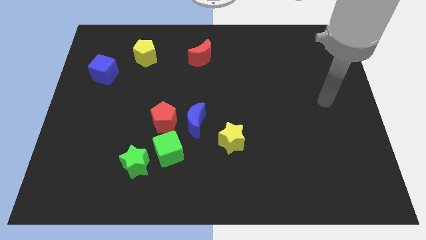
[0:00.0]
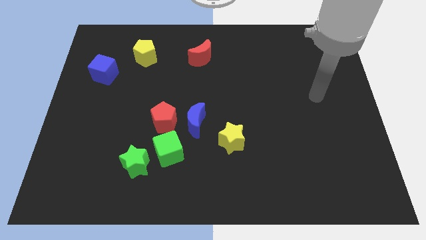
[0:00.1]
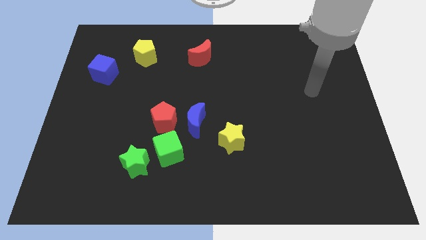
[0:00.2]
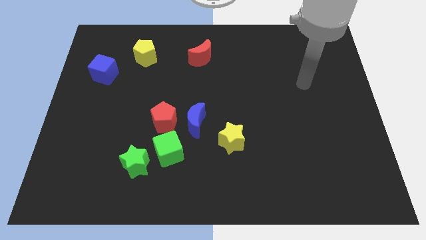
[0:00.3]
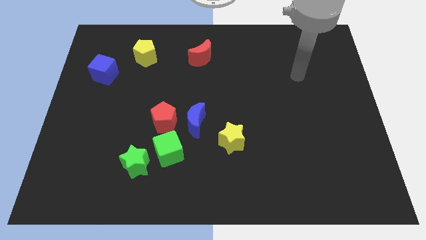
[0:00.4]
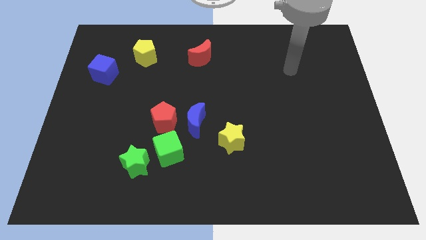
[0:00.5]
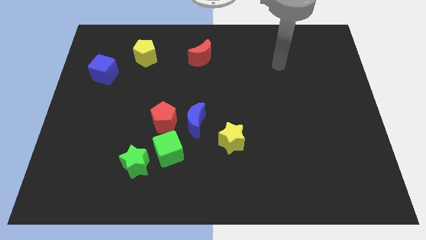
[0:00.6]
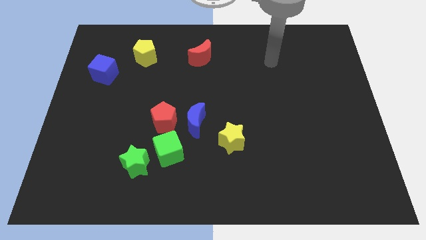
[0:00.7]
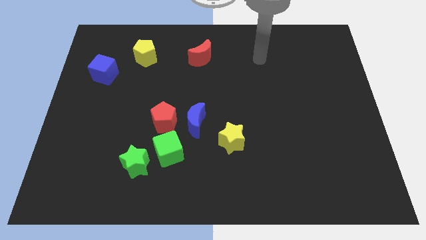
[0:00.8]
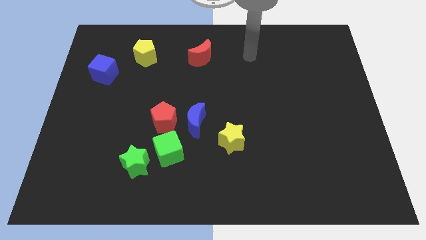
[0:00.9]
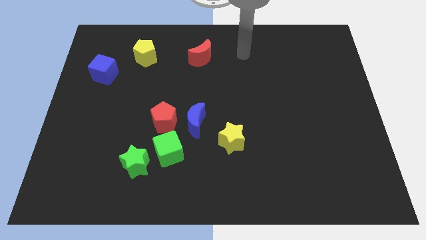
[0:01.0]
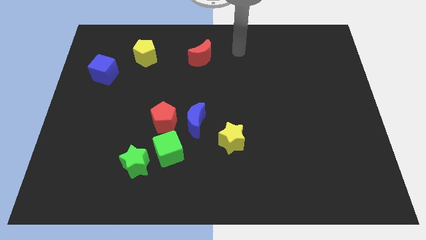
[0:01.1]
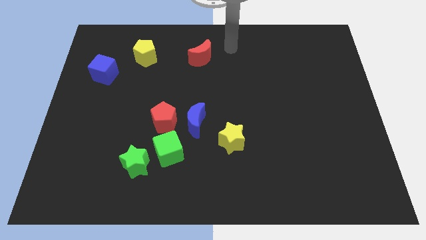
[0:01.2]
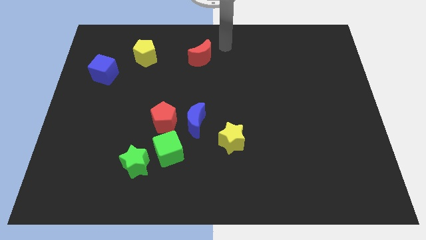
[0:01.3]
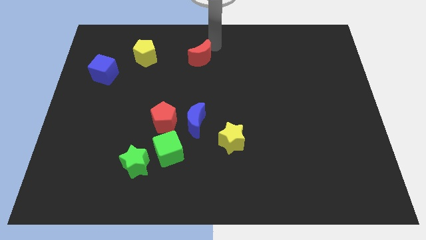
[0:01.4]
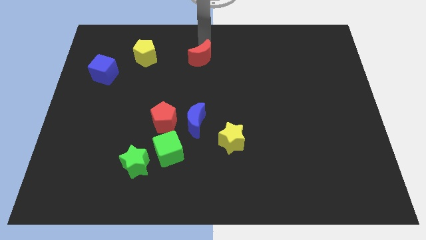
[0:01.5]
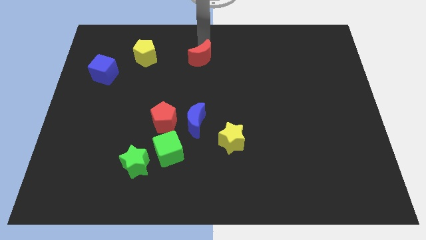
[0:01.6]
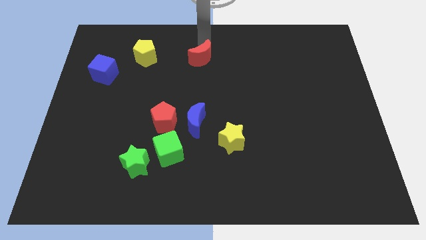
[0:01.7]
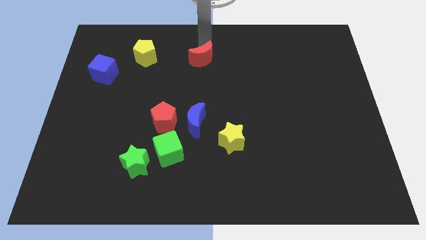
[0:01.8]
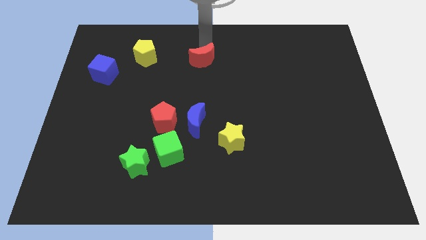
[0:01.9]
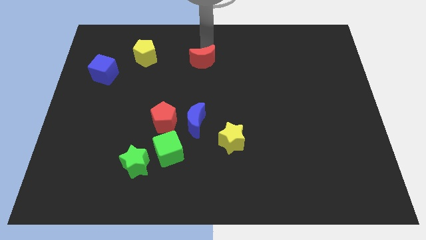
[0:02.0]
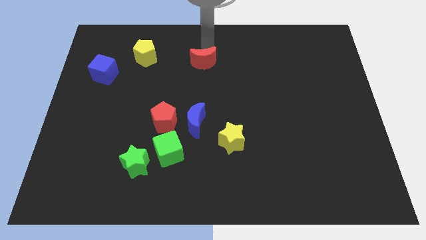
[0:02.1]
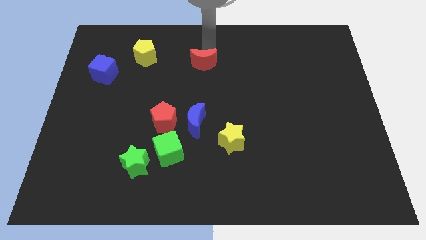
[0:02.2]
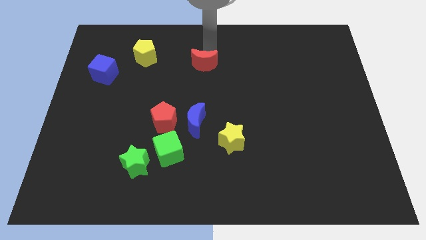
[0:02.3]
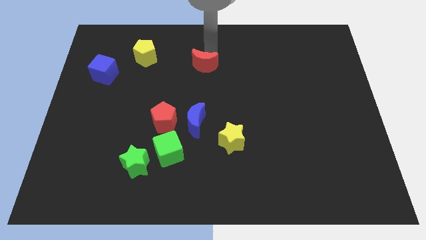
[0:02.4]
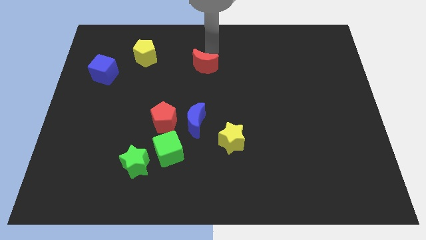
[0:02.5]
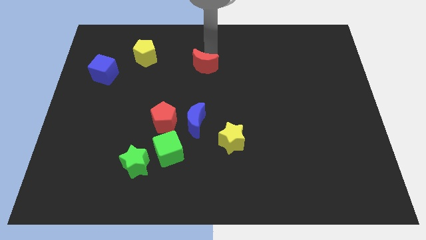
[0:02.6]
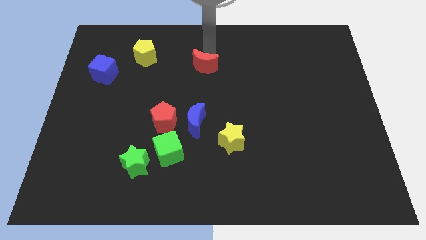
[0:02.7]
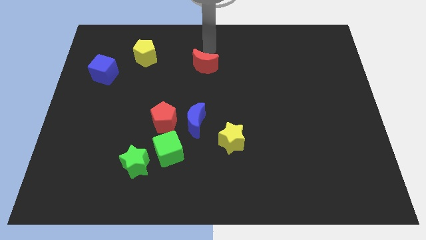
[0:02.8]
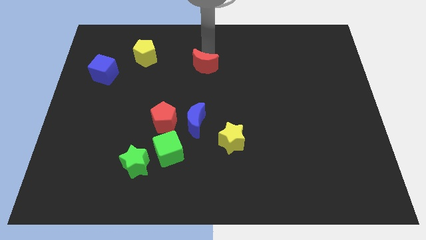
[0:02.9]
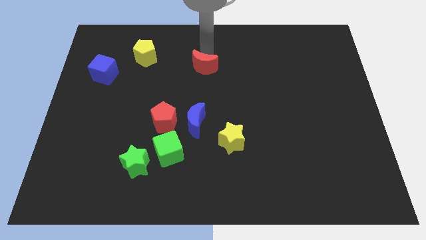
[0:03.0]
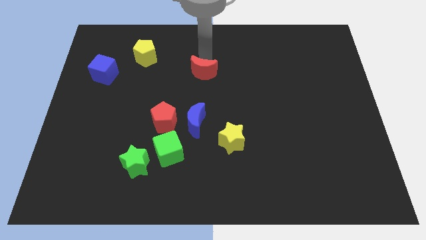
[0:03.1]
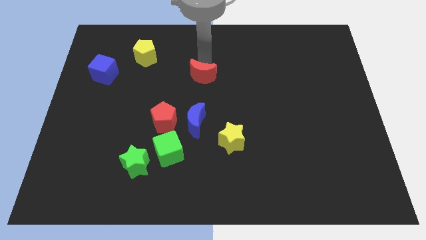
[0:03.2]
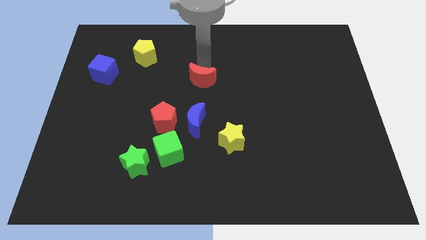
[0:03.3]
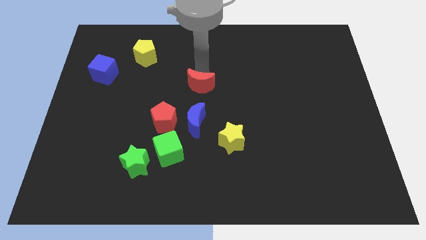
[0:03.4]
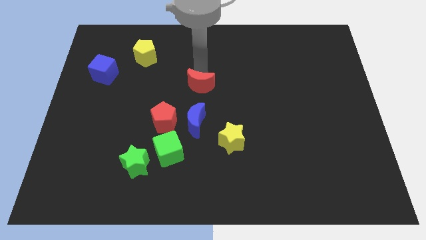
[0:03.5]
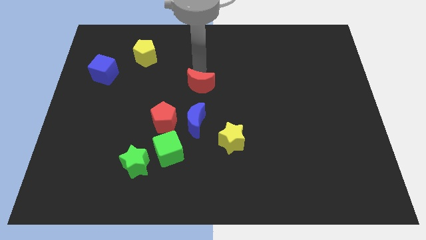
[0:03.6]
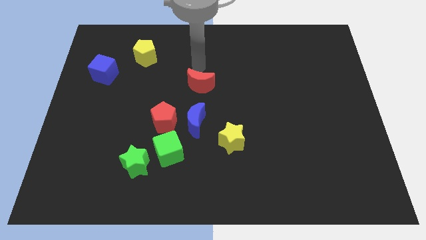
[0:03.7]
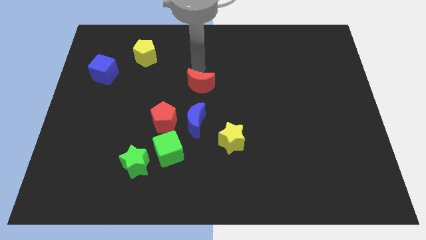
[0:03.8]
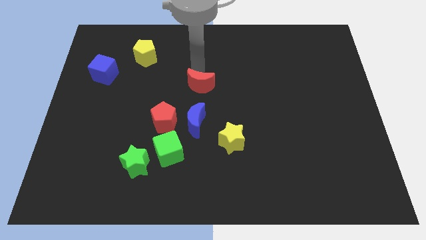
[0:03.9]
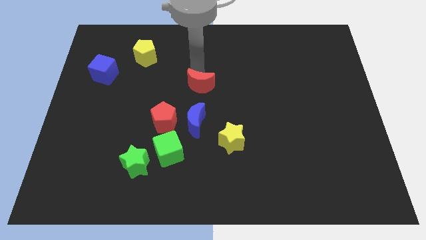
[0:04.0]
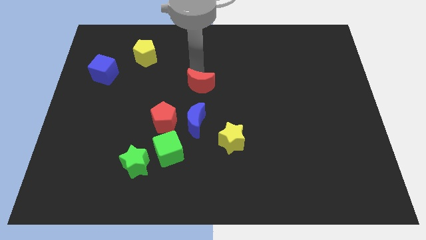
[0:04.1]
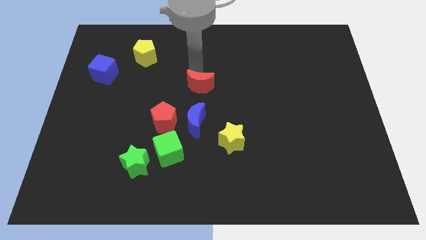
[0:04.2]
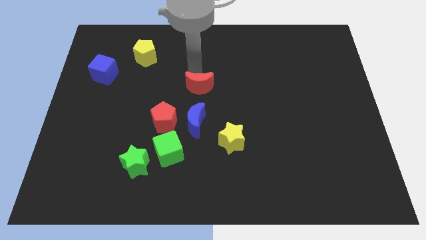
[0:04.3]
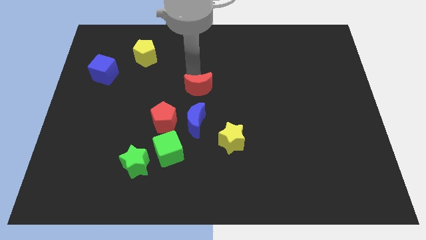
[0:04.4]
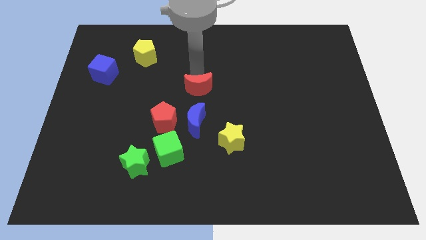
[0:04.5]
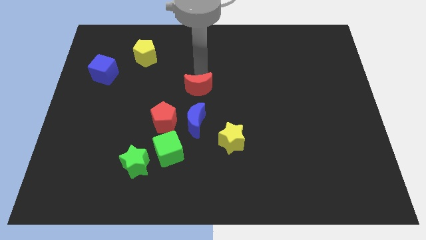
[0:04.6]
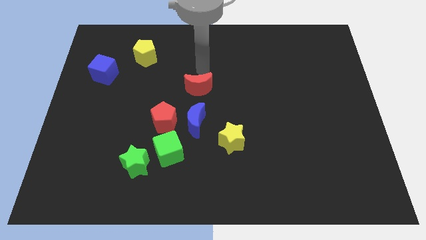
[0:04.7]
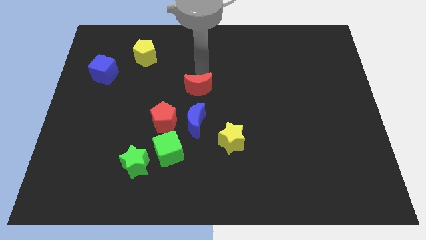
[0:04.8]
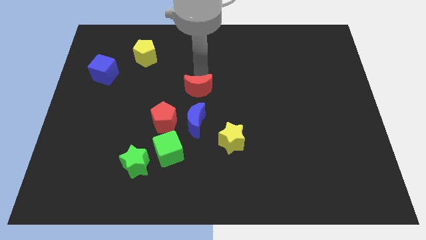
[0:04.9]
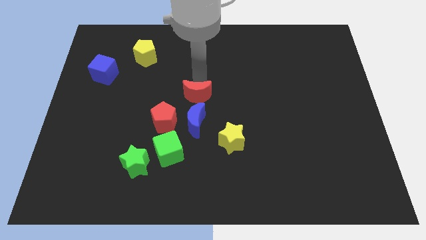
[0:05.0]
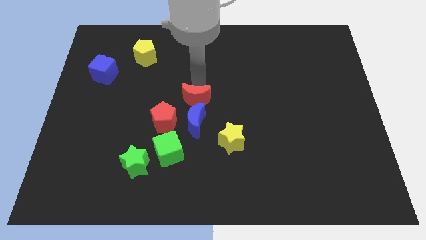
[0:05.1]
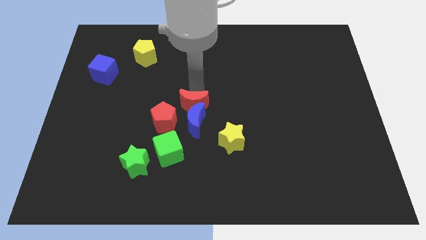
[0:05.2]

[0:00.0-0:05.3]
move the red moon towards the blue moon
